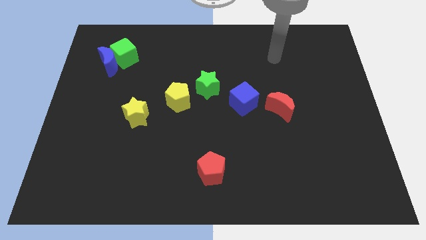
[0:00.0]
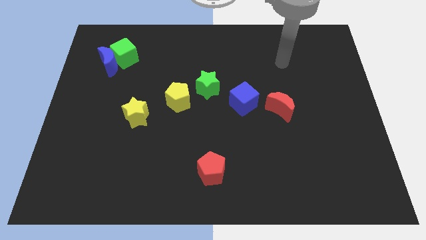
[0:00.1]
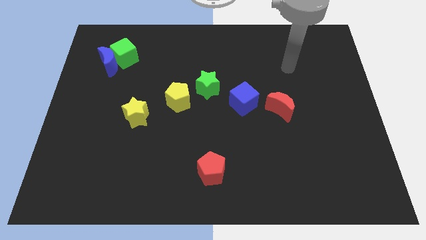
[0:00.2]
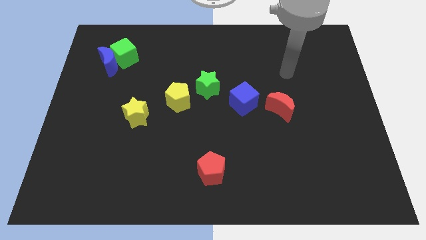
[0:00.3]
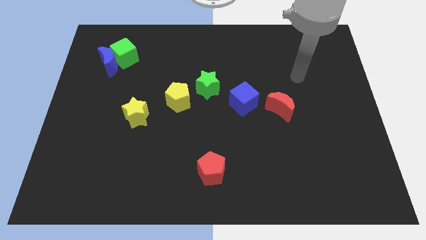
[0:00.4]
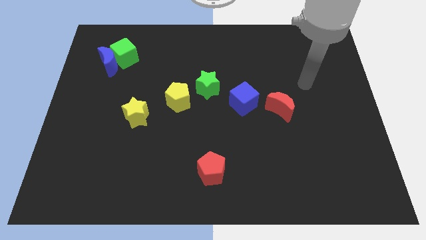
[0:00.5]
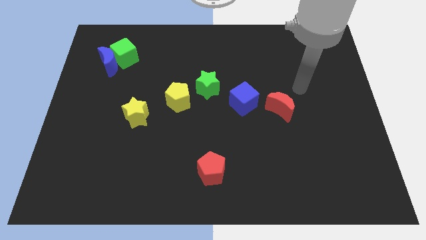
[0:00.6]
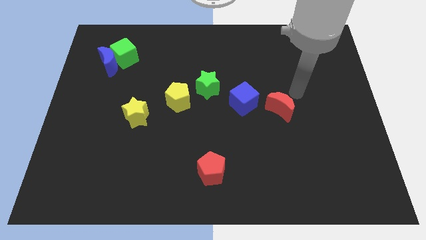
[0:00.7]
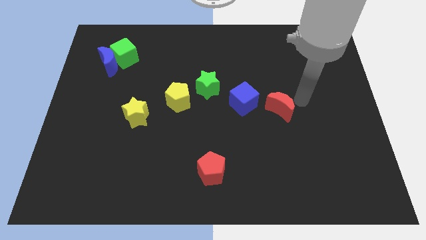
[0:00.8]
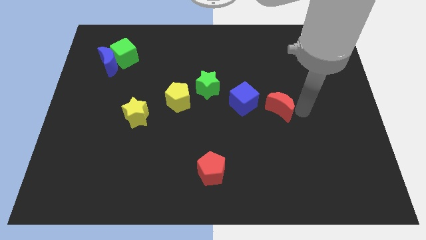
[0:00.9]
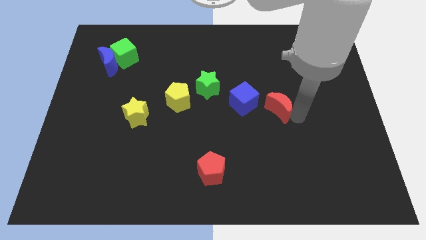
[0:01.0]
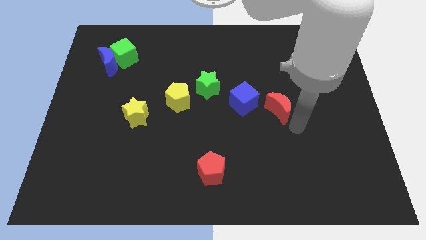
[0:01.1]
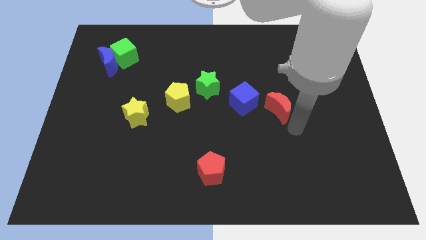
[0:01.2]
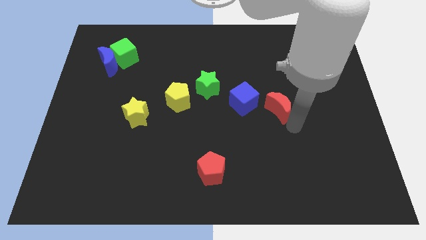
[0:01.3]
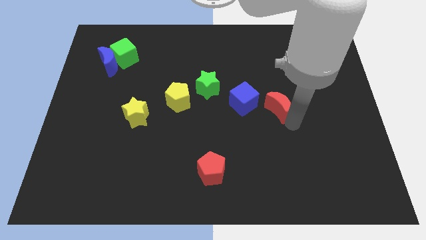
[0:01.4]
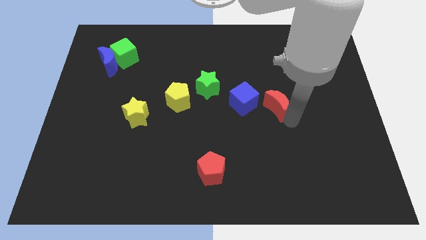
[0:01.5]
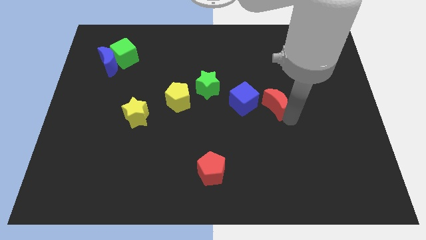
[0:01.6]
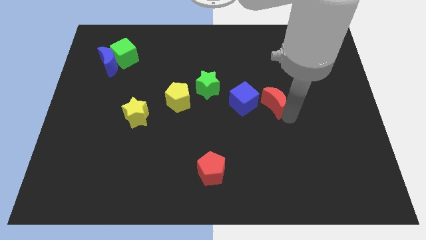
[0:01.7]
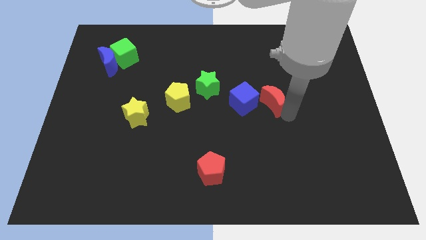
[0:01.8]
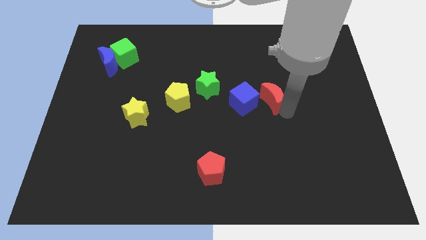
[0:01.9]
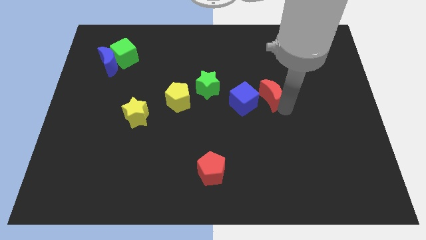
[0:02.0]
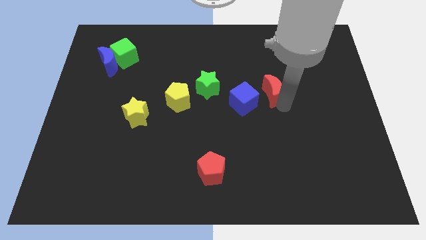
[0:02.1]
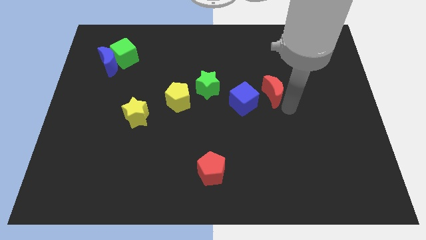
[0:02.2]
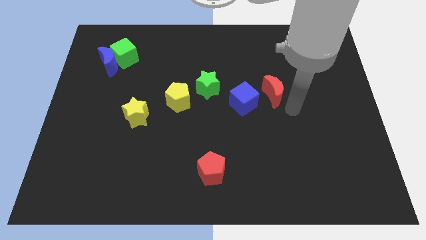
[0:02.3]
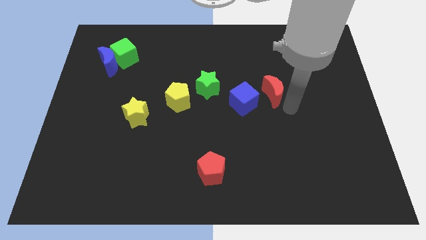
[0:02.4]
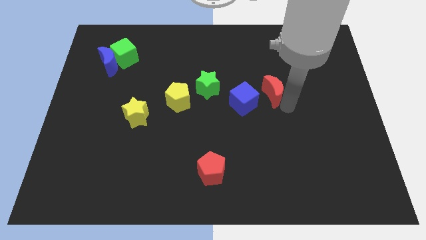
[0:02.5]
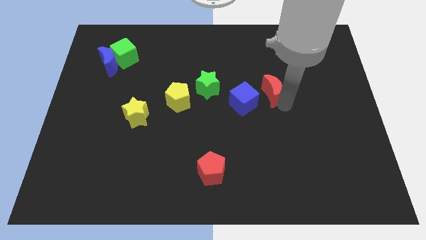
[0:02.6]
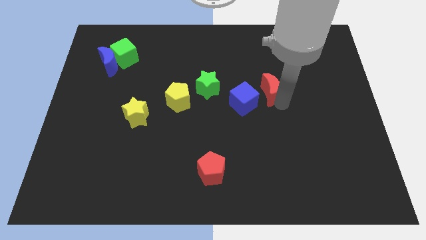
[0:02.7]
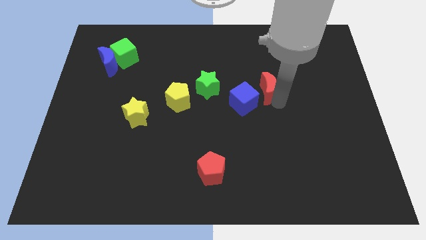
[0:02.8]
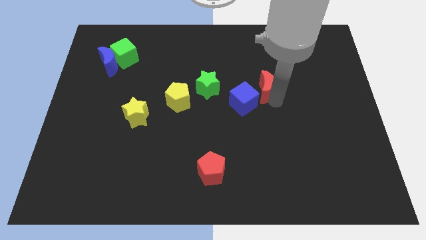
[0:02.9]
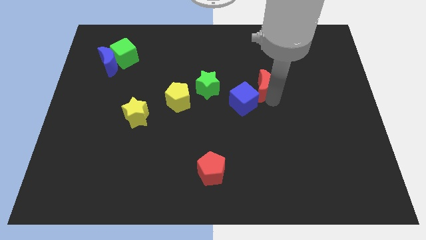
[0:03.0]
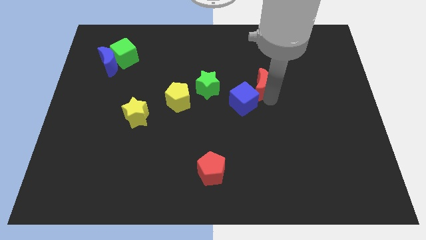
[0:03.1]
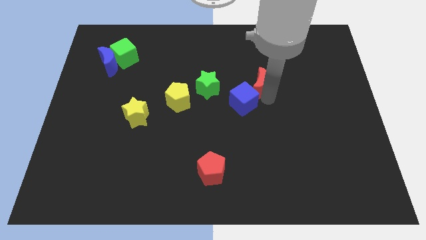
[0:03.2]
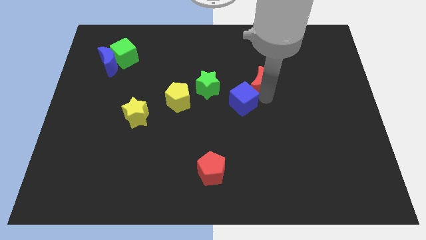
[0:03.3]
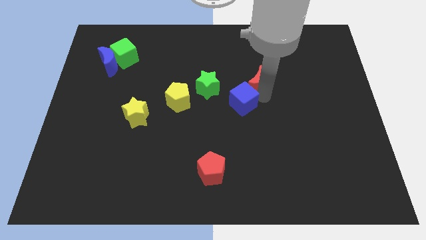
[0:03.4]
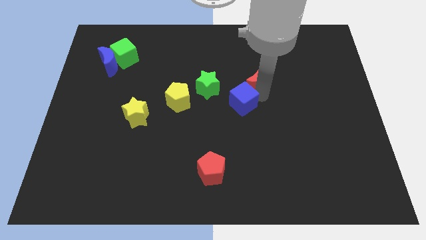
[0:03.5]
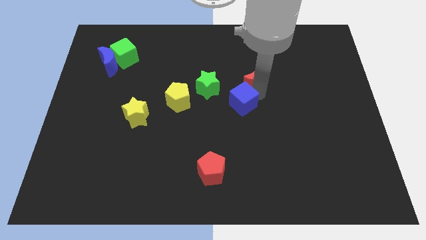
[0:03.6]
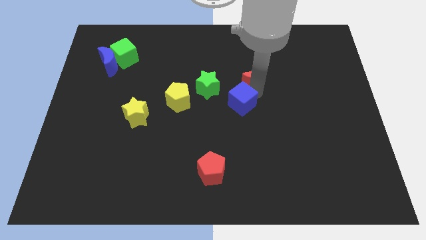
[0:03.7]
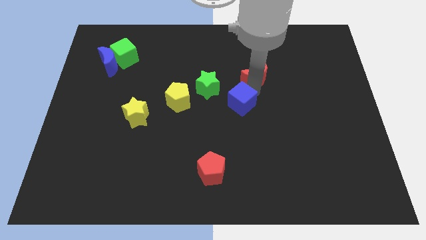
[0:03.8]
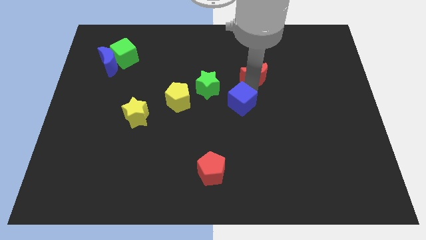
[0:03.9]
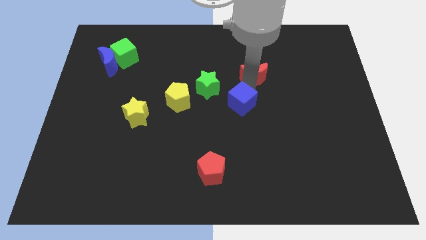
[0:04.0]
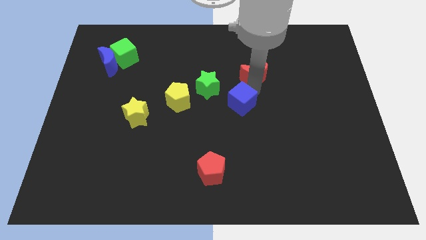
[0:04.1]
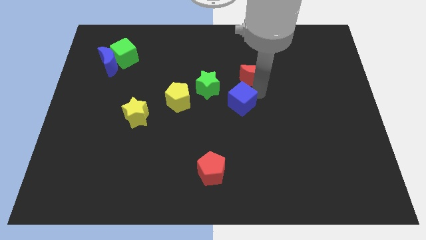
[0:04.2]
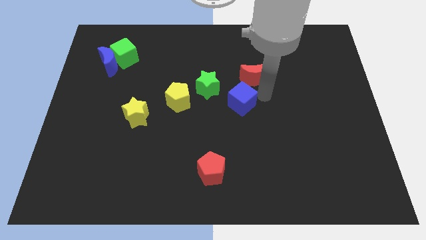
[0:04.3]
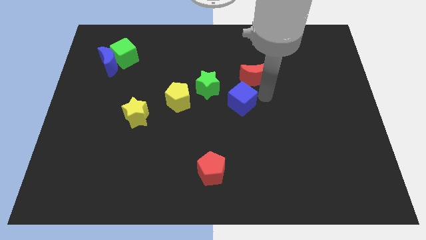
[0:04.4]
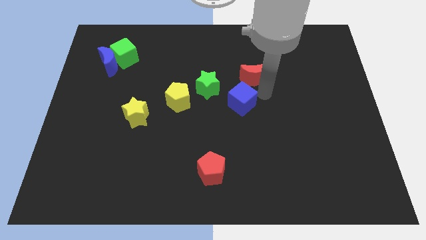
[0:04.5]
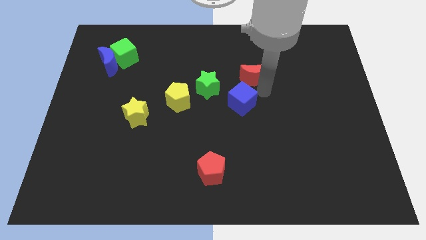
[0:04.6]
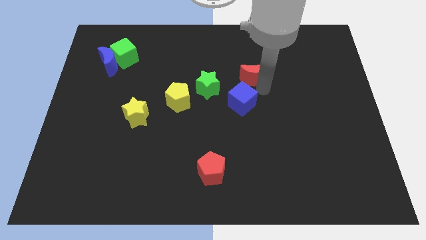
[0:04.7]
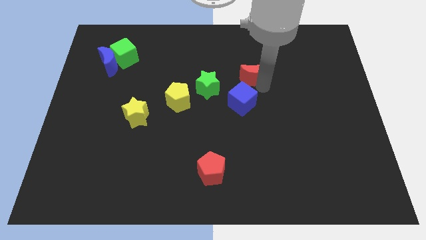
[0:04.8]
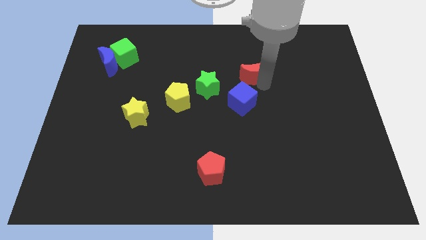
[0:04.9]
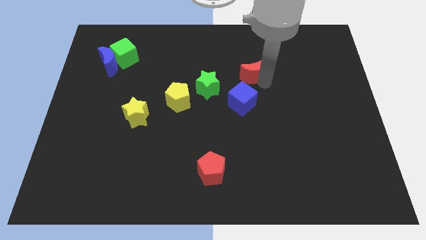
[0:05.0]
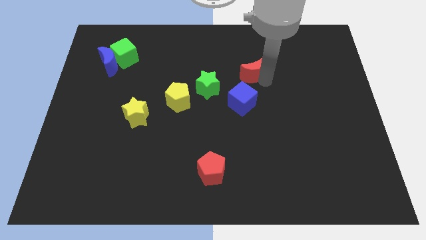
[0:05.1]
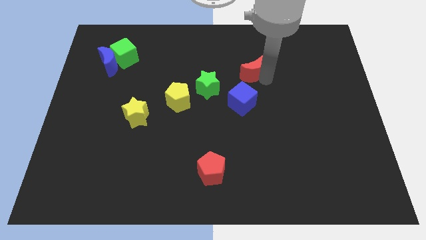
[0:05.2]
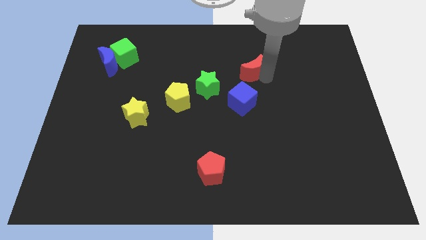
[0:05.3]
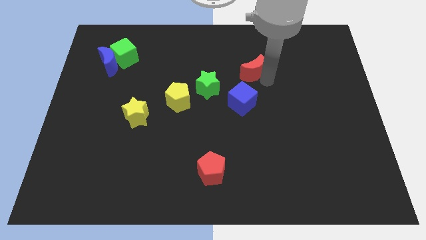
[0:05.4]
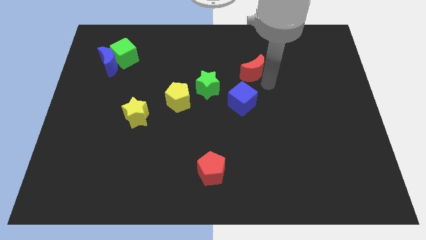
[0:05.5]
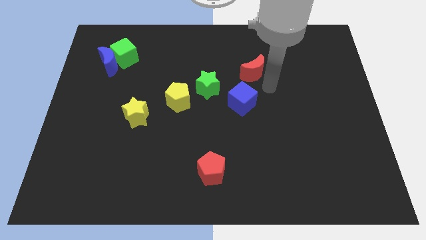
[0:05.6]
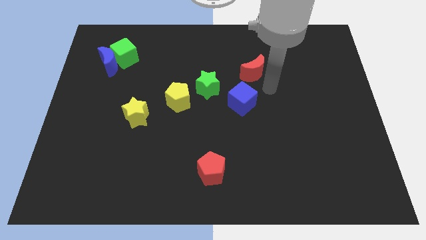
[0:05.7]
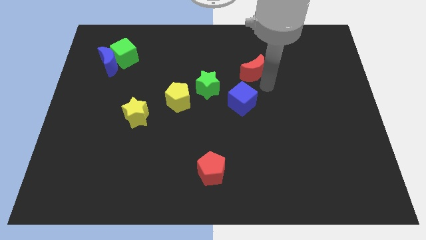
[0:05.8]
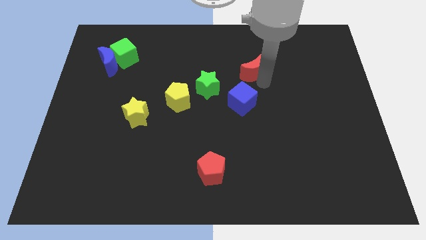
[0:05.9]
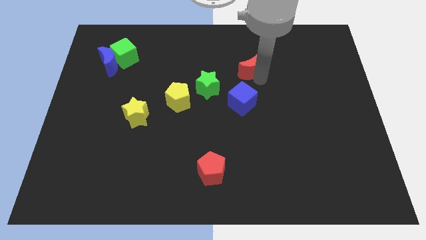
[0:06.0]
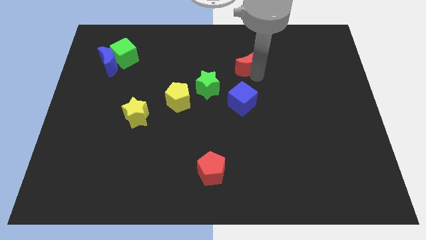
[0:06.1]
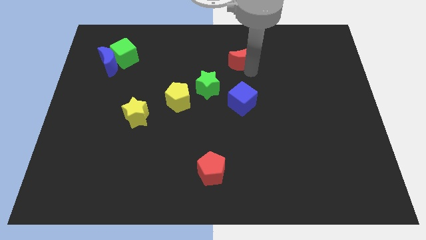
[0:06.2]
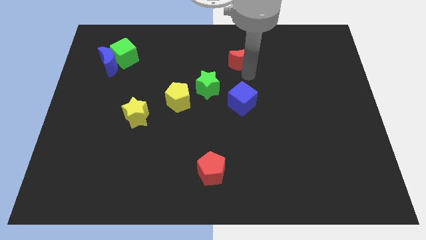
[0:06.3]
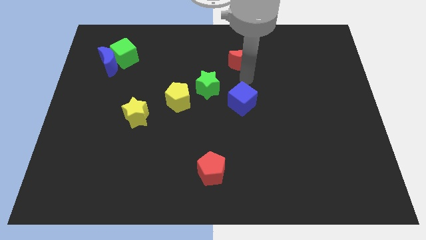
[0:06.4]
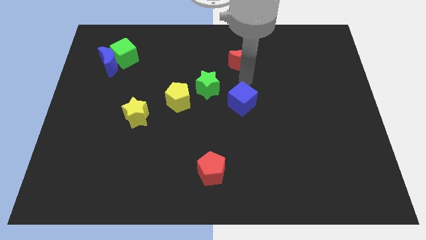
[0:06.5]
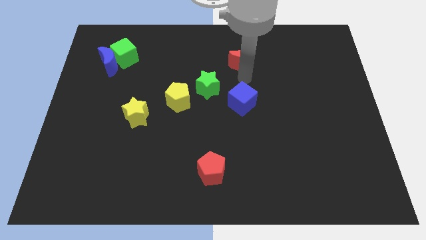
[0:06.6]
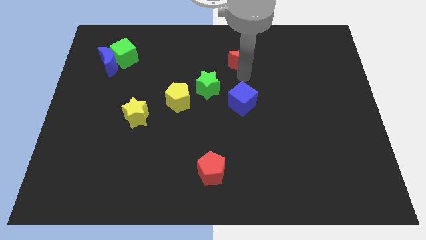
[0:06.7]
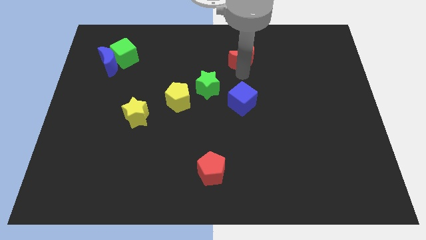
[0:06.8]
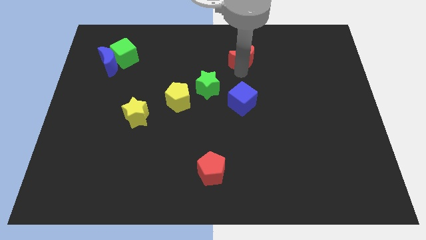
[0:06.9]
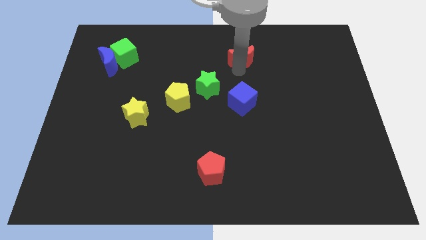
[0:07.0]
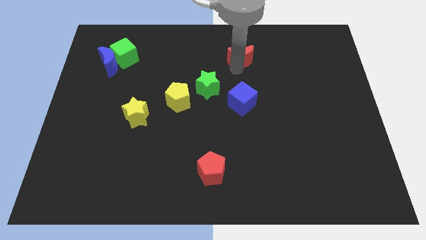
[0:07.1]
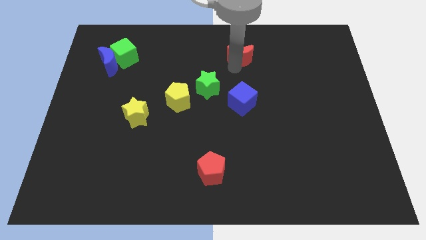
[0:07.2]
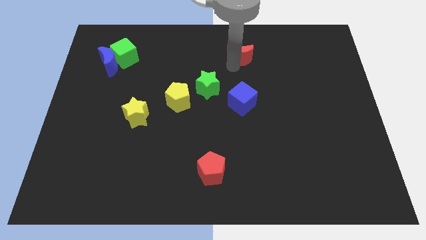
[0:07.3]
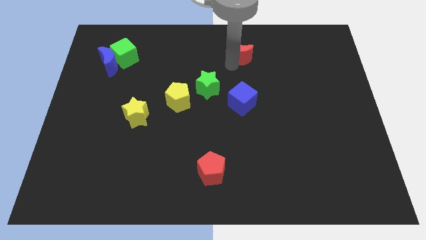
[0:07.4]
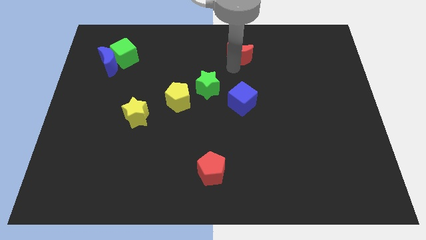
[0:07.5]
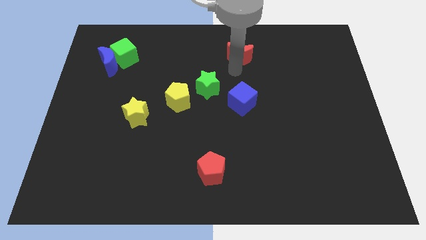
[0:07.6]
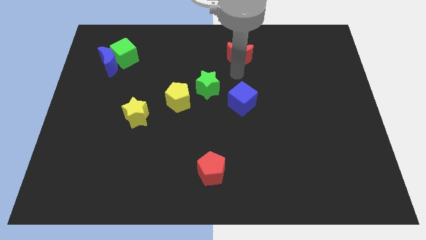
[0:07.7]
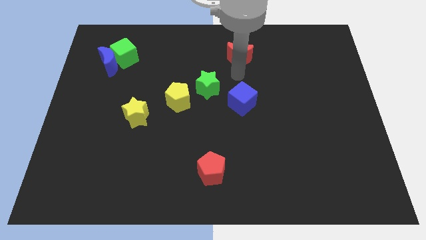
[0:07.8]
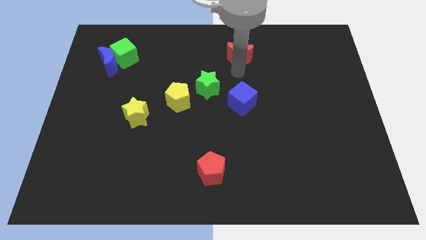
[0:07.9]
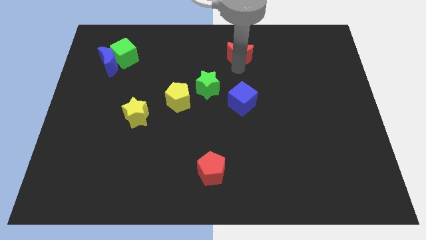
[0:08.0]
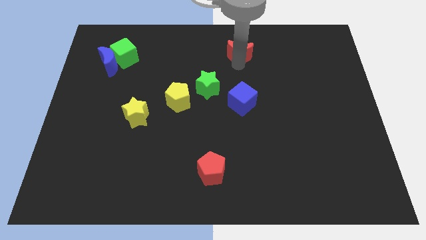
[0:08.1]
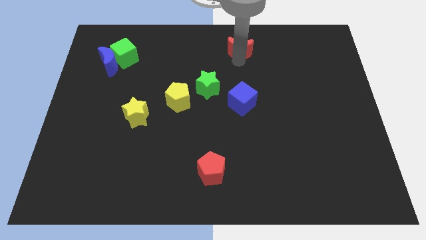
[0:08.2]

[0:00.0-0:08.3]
move the red moon to the top side
